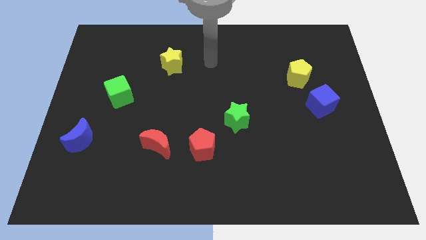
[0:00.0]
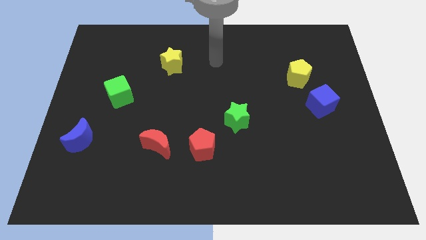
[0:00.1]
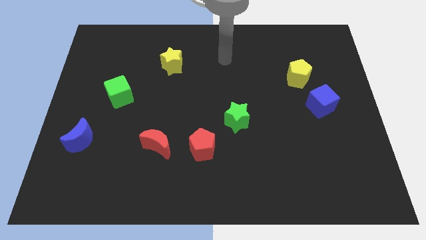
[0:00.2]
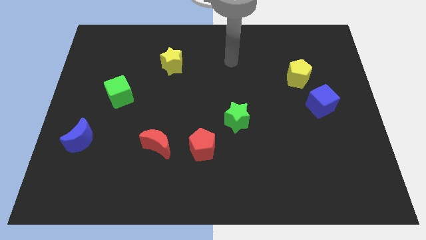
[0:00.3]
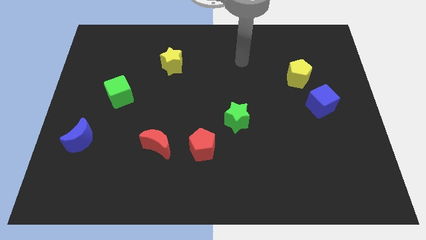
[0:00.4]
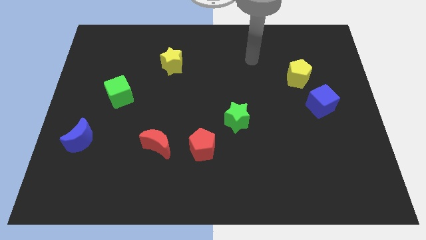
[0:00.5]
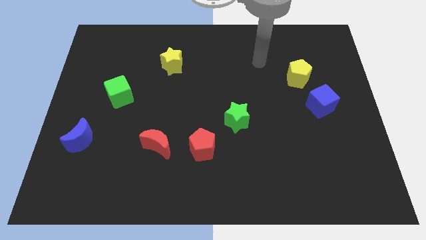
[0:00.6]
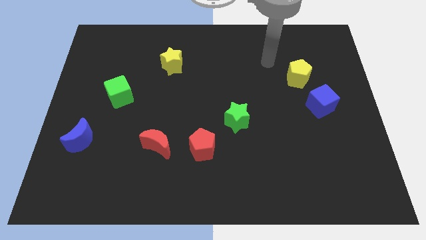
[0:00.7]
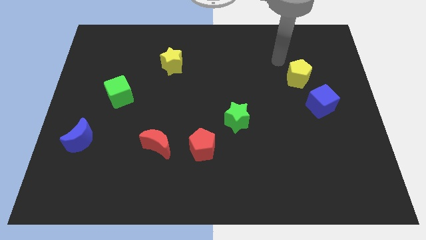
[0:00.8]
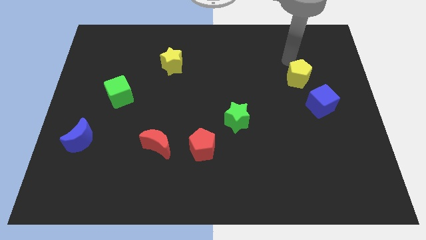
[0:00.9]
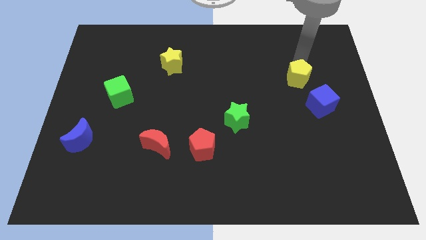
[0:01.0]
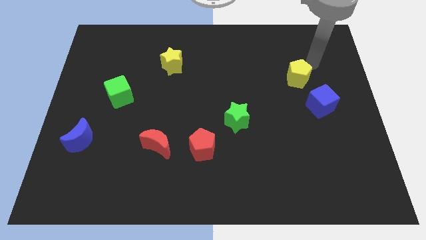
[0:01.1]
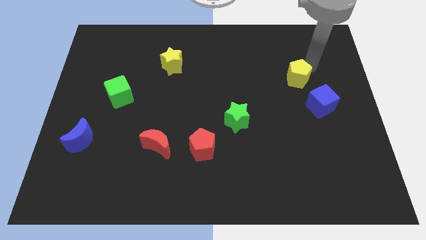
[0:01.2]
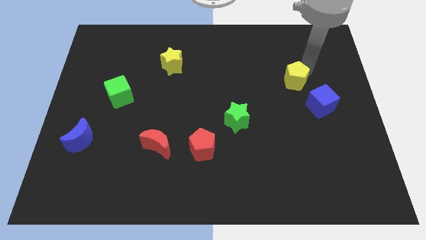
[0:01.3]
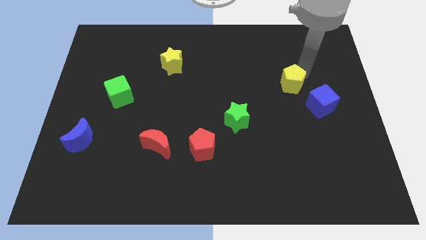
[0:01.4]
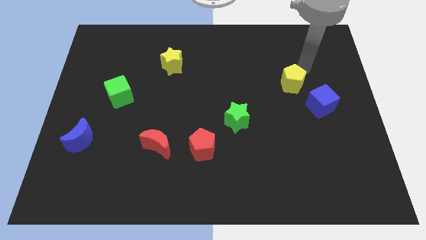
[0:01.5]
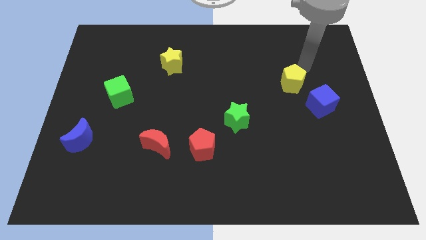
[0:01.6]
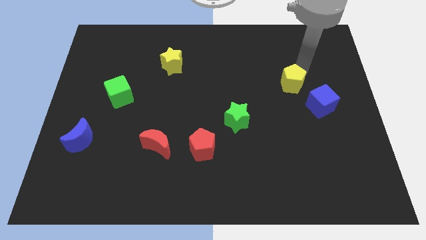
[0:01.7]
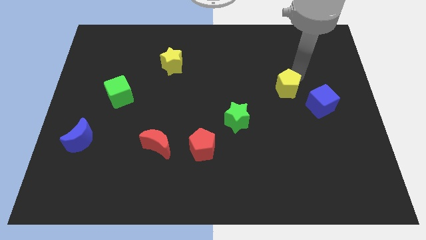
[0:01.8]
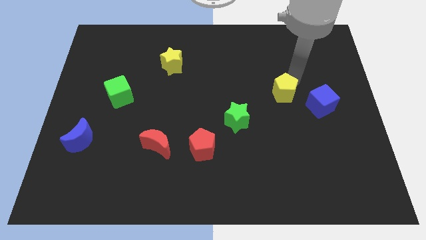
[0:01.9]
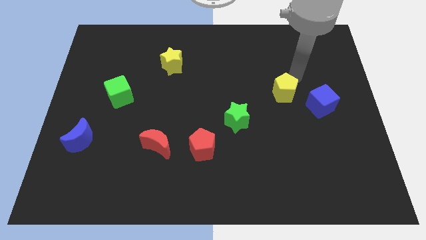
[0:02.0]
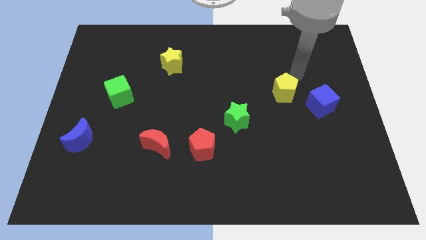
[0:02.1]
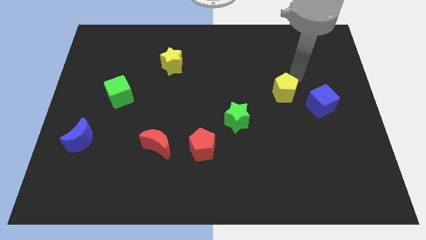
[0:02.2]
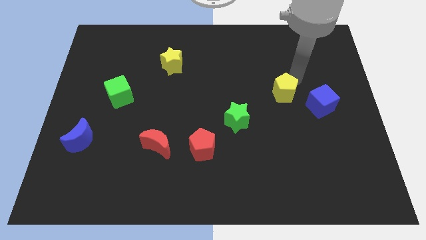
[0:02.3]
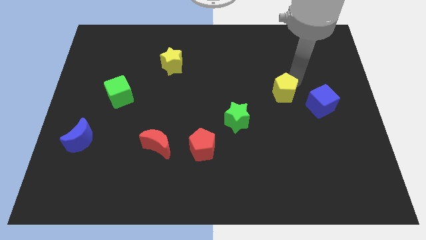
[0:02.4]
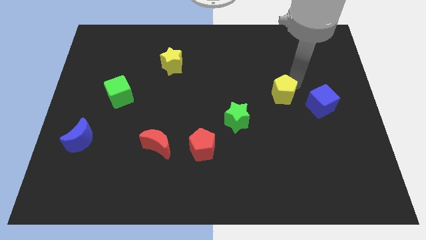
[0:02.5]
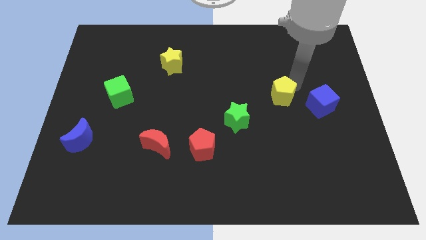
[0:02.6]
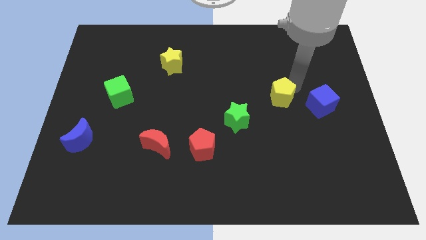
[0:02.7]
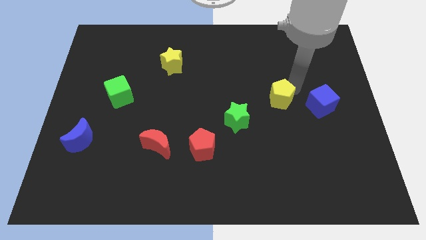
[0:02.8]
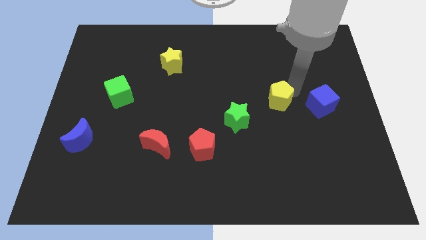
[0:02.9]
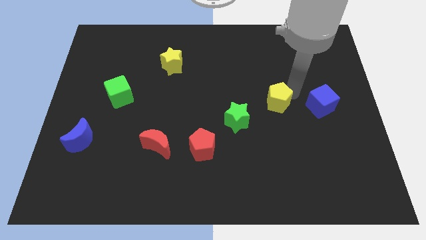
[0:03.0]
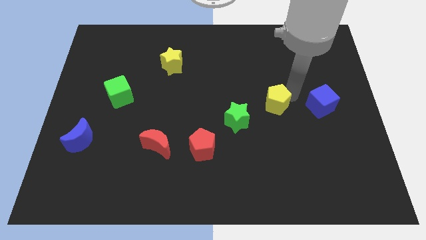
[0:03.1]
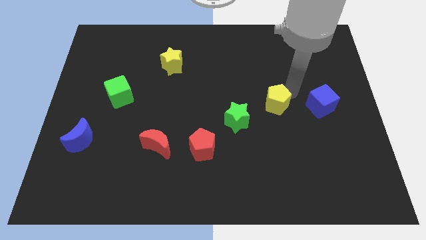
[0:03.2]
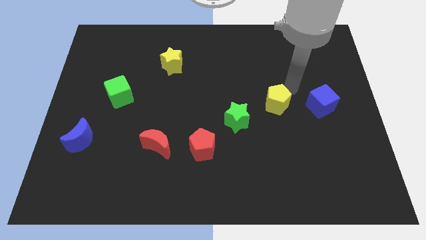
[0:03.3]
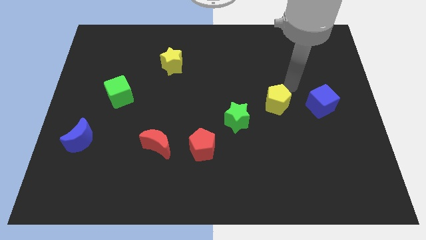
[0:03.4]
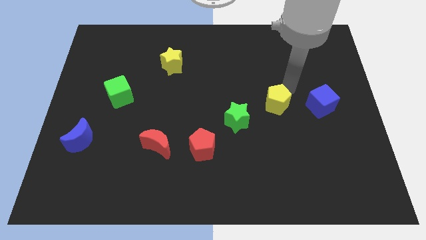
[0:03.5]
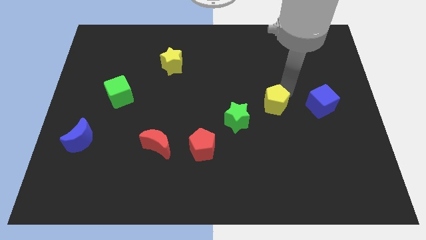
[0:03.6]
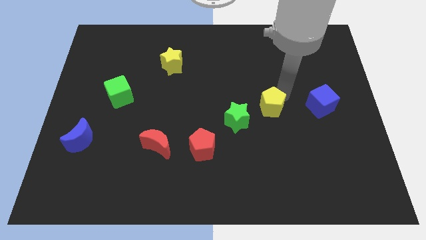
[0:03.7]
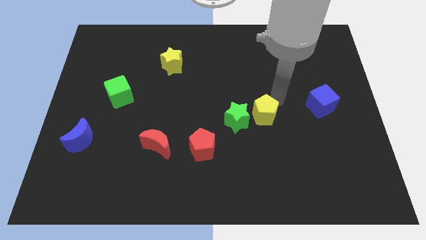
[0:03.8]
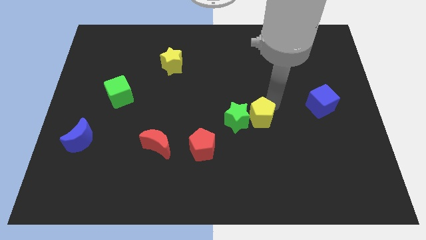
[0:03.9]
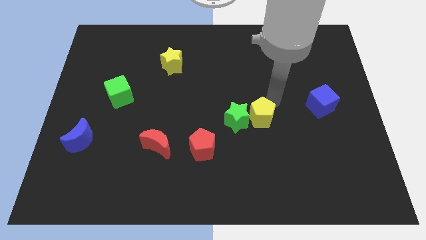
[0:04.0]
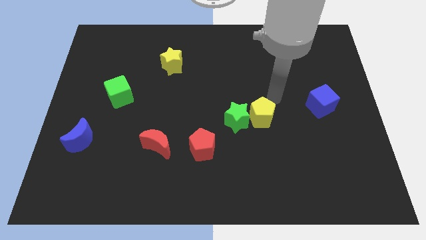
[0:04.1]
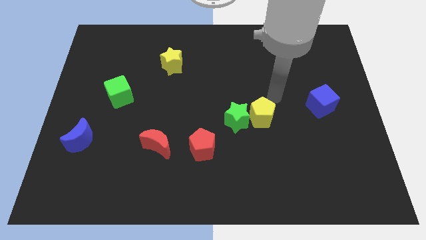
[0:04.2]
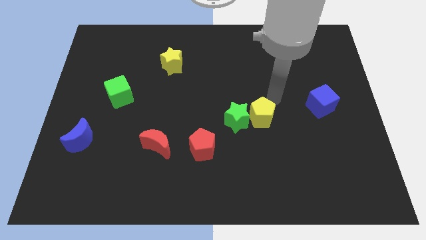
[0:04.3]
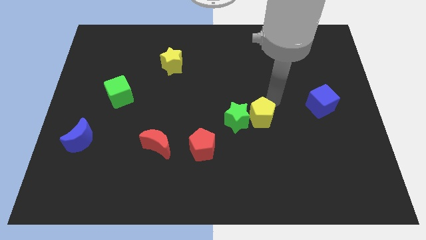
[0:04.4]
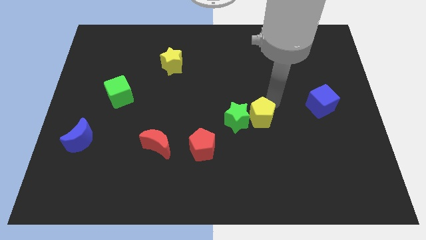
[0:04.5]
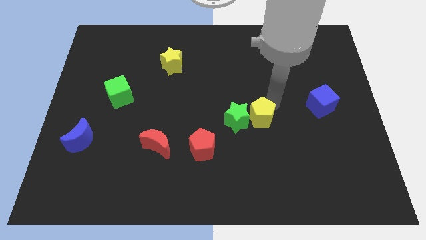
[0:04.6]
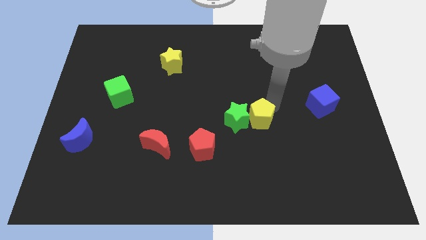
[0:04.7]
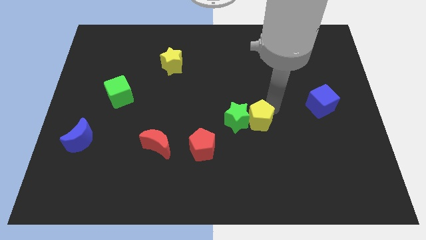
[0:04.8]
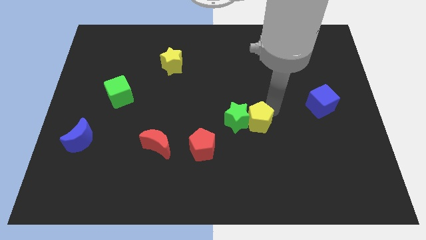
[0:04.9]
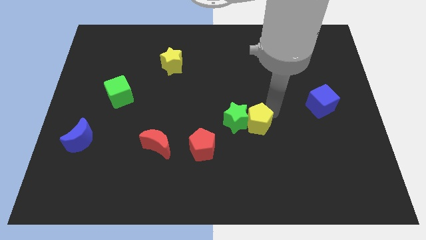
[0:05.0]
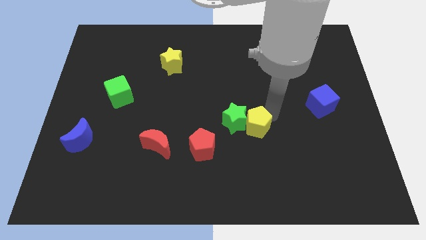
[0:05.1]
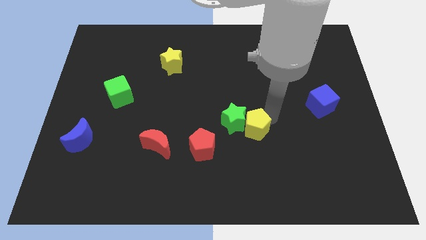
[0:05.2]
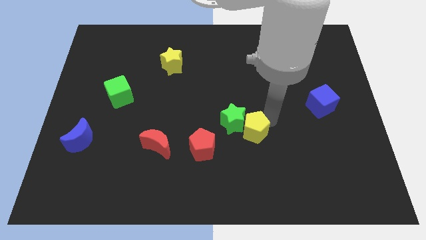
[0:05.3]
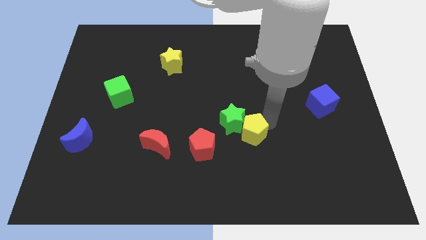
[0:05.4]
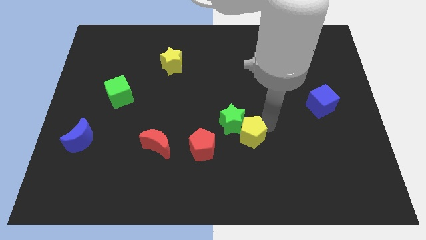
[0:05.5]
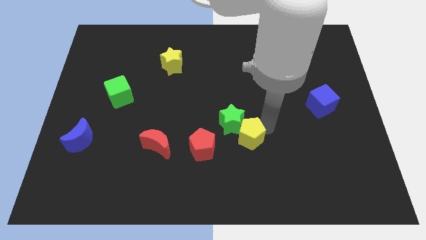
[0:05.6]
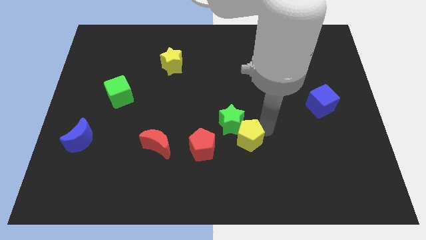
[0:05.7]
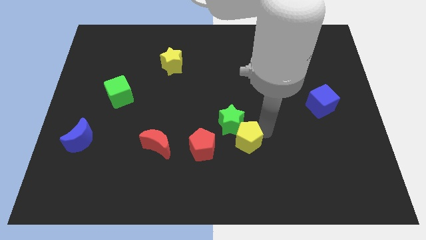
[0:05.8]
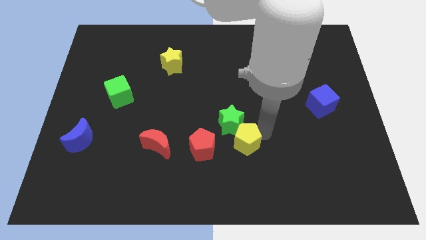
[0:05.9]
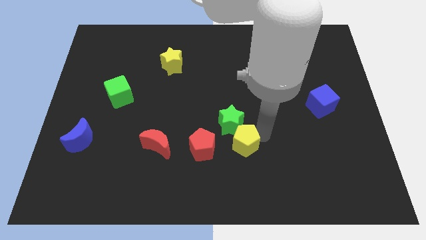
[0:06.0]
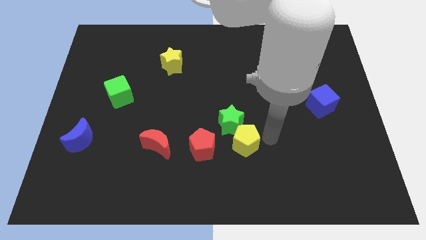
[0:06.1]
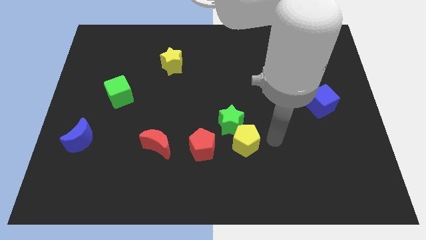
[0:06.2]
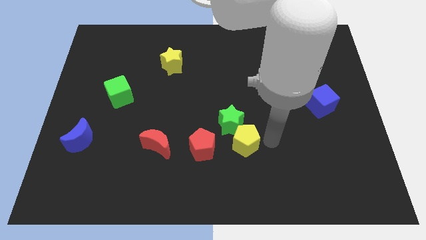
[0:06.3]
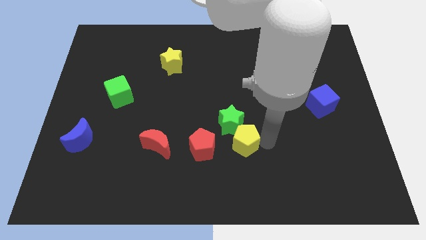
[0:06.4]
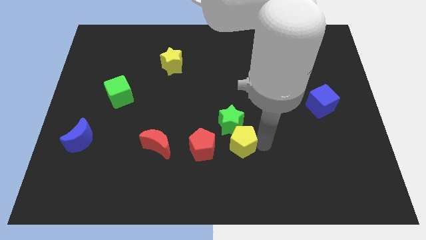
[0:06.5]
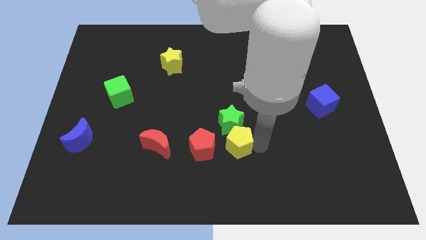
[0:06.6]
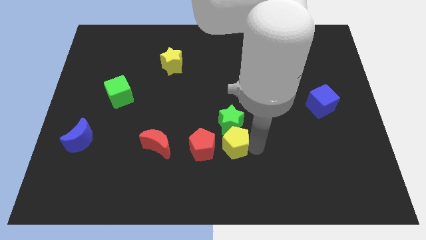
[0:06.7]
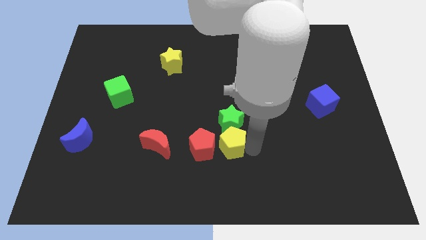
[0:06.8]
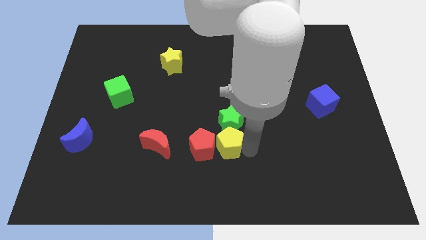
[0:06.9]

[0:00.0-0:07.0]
move the yellow pentagon next to the red pentagon

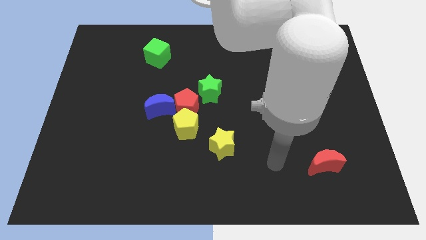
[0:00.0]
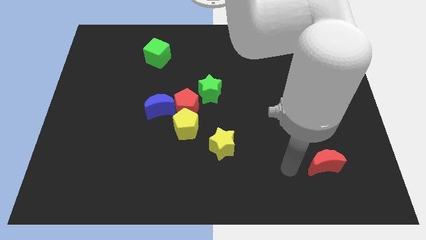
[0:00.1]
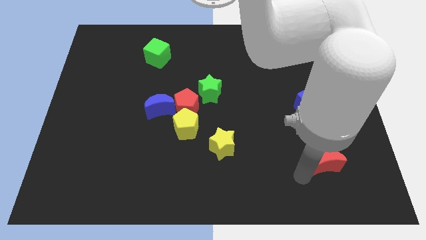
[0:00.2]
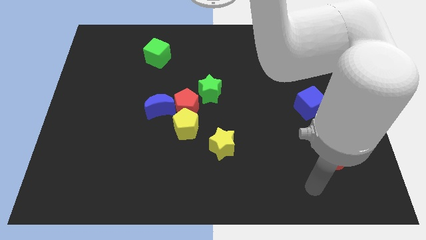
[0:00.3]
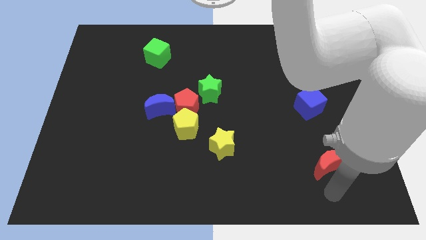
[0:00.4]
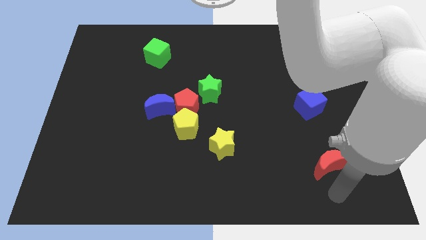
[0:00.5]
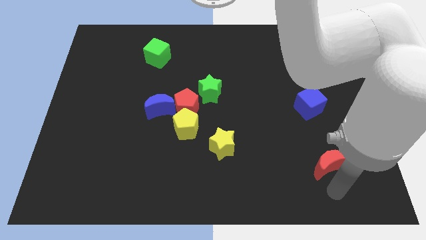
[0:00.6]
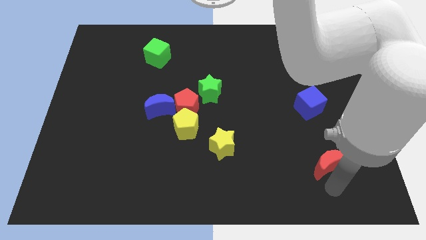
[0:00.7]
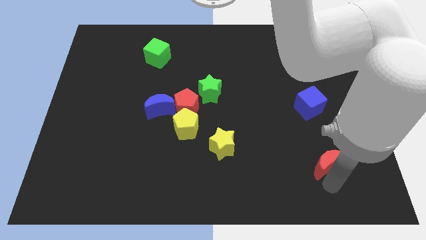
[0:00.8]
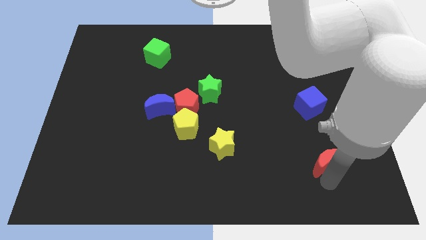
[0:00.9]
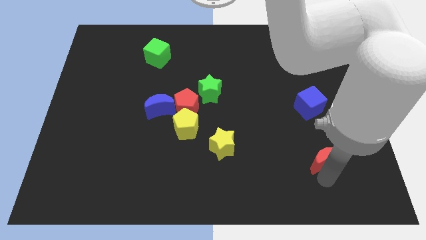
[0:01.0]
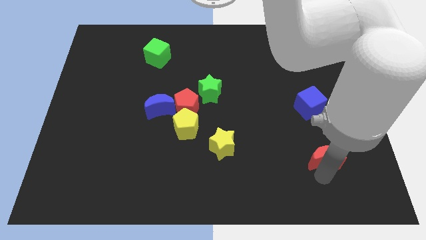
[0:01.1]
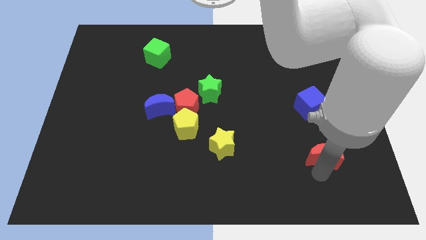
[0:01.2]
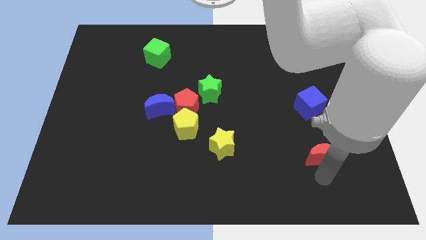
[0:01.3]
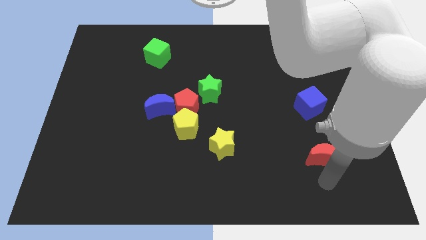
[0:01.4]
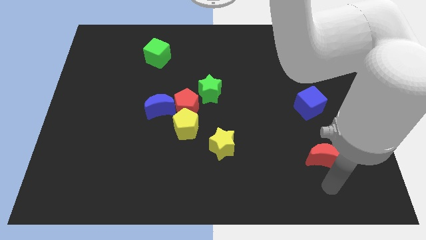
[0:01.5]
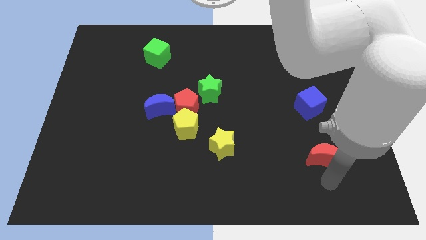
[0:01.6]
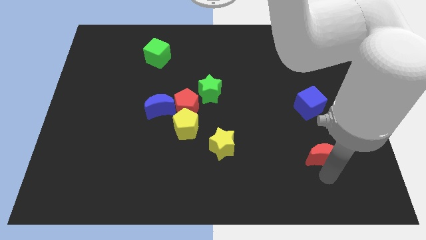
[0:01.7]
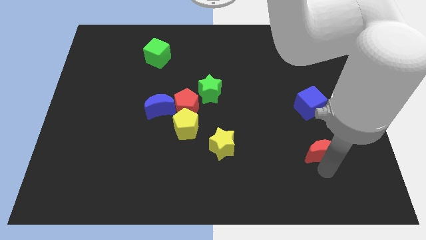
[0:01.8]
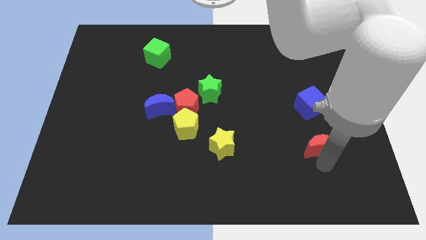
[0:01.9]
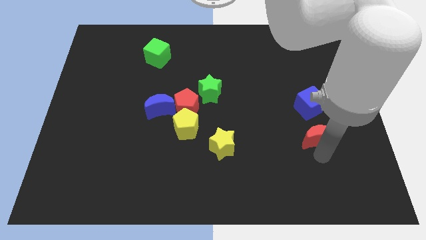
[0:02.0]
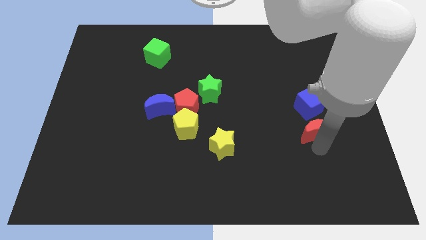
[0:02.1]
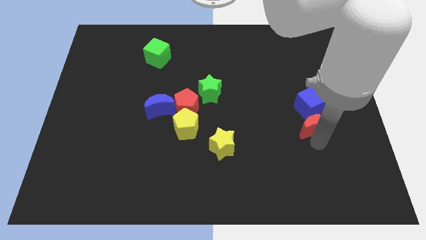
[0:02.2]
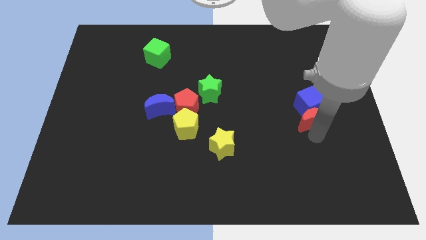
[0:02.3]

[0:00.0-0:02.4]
put the red moon to the blue cube
